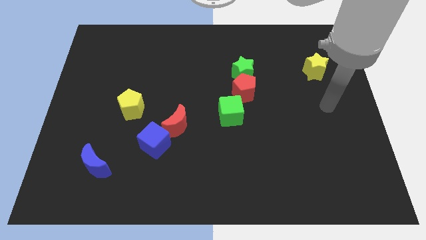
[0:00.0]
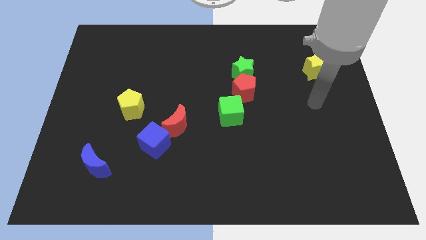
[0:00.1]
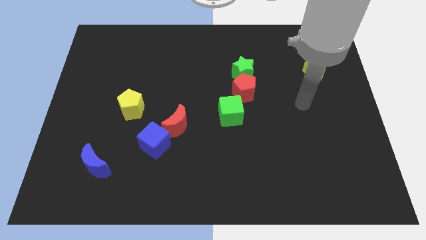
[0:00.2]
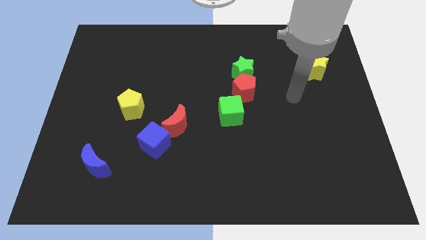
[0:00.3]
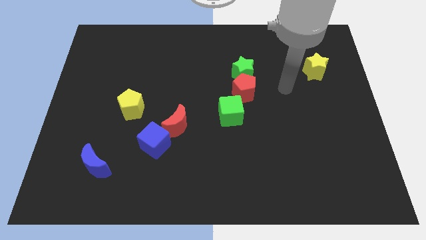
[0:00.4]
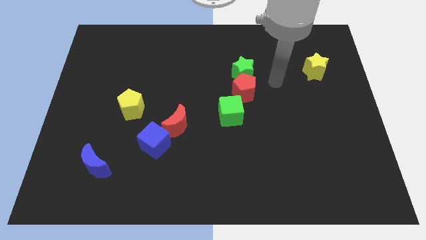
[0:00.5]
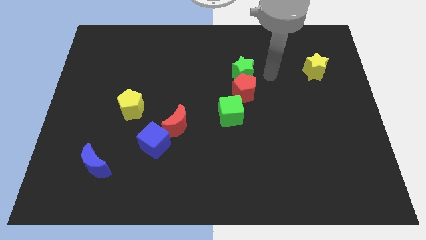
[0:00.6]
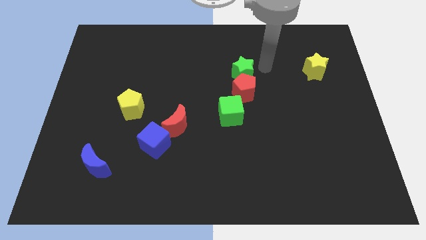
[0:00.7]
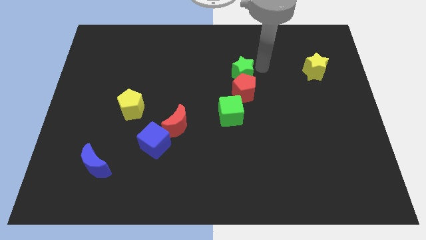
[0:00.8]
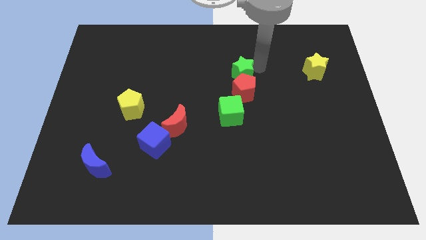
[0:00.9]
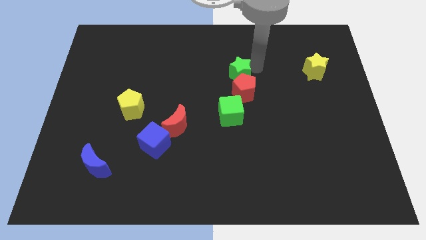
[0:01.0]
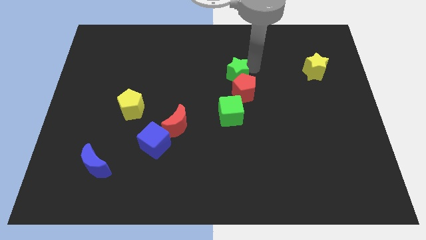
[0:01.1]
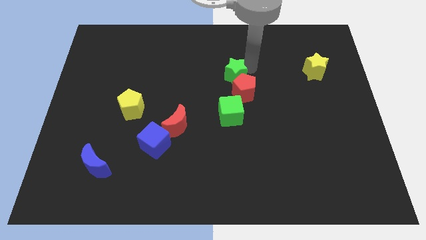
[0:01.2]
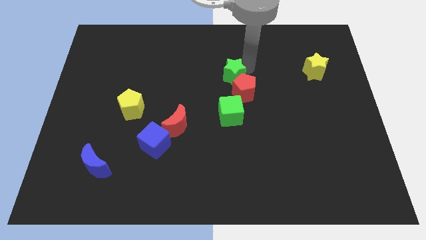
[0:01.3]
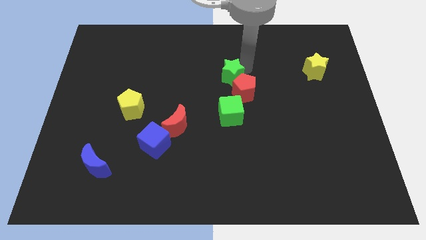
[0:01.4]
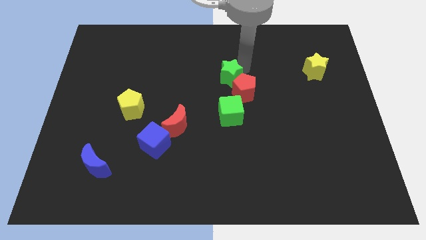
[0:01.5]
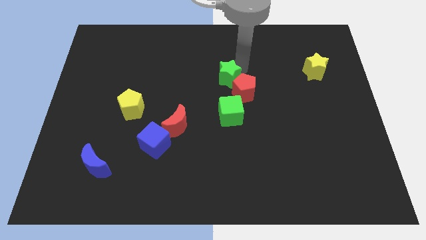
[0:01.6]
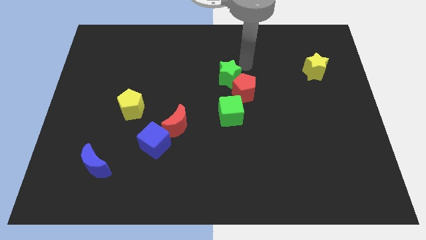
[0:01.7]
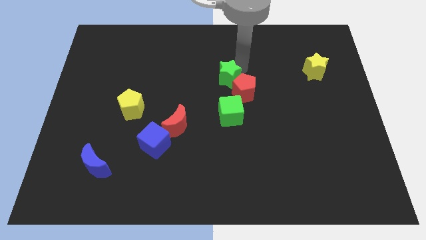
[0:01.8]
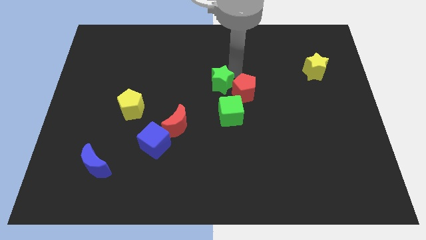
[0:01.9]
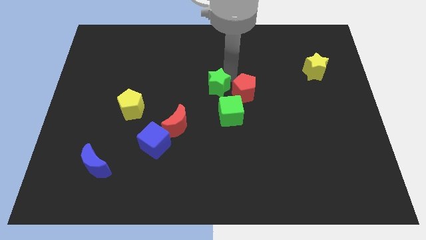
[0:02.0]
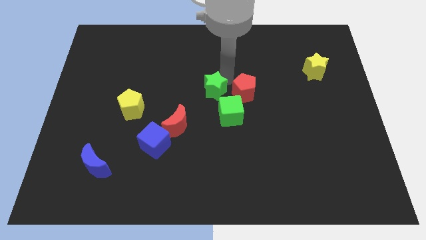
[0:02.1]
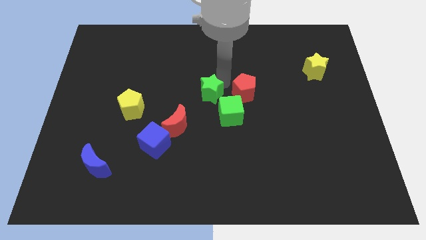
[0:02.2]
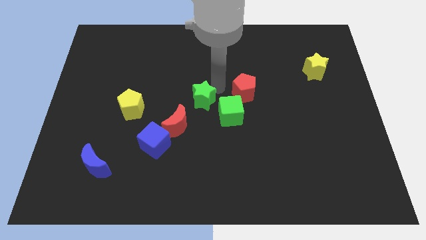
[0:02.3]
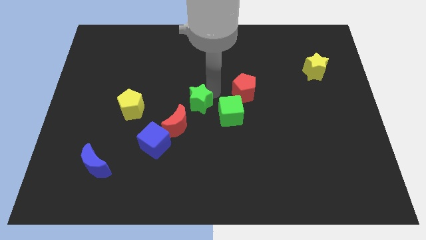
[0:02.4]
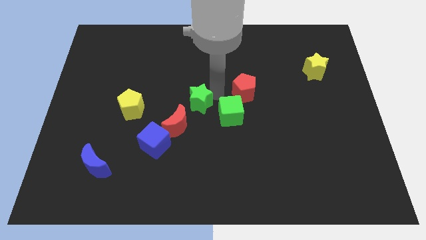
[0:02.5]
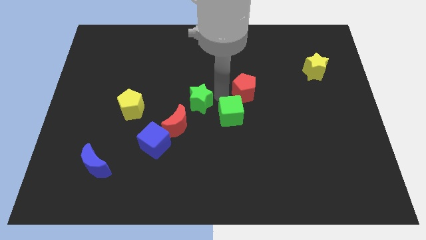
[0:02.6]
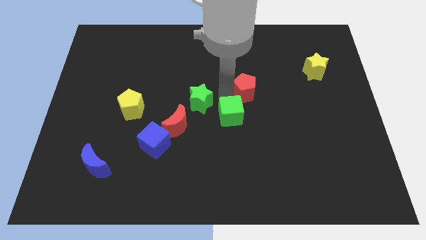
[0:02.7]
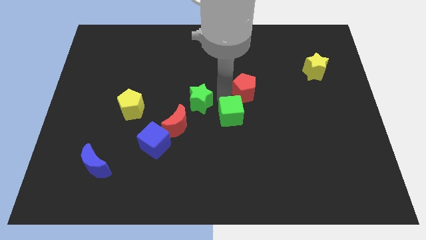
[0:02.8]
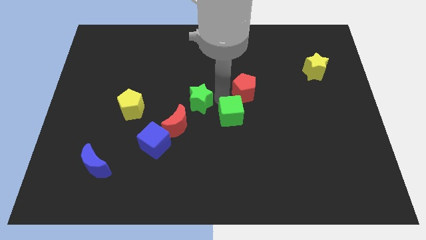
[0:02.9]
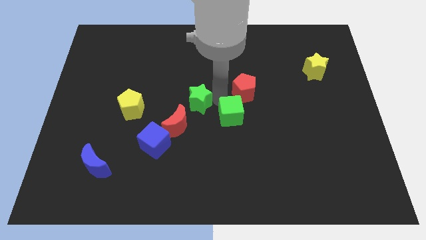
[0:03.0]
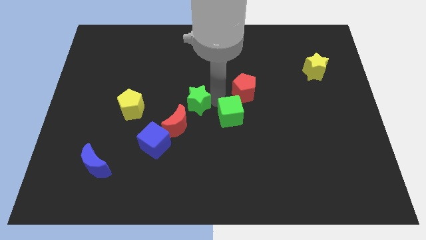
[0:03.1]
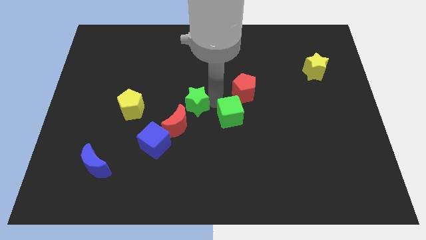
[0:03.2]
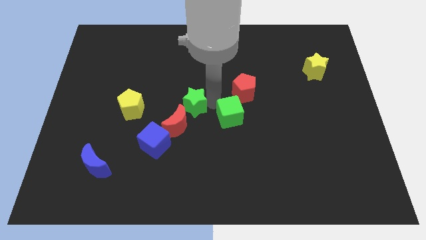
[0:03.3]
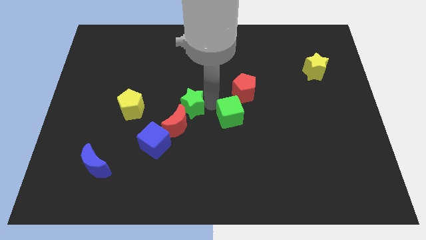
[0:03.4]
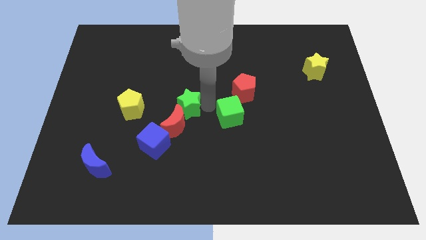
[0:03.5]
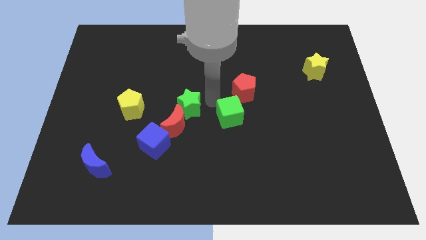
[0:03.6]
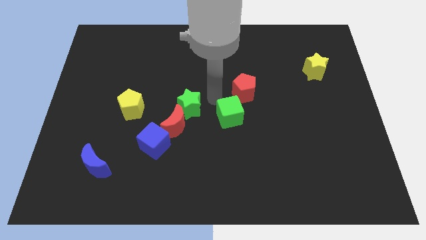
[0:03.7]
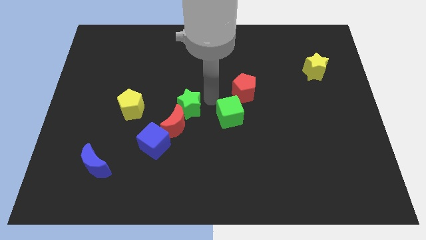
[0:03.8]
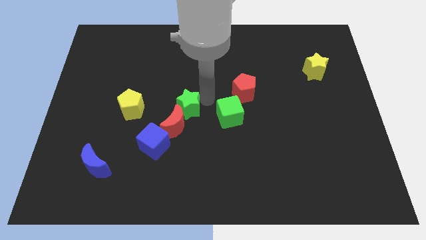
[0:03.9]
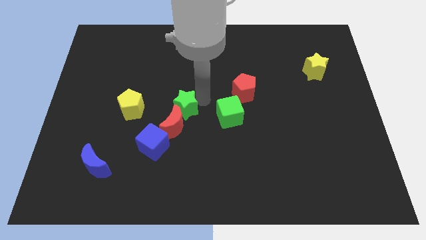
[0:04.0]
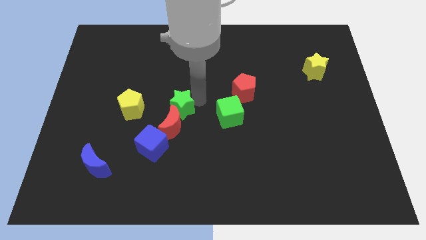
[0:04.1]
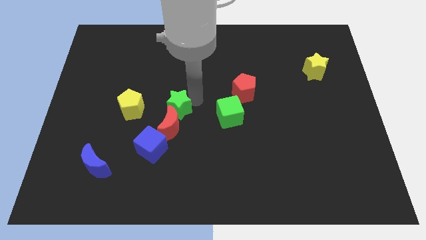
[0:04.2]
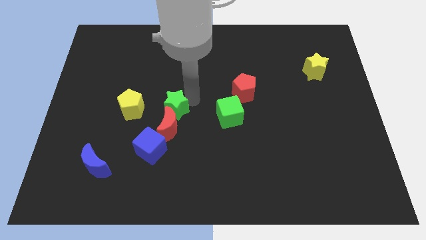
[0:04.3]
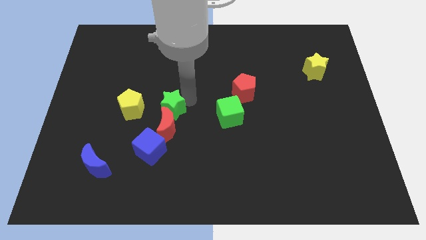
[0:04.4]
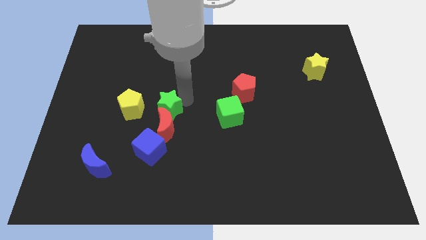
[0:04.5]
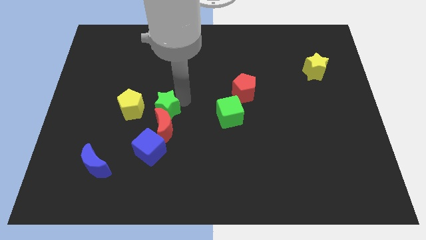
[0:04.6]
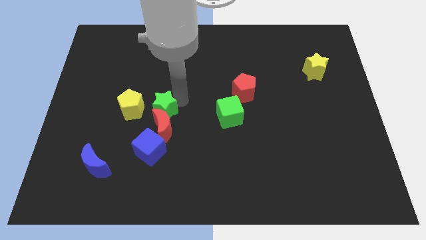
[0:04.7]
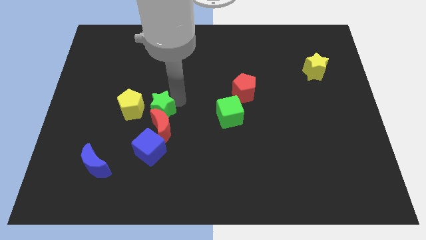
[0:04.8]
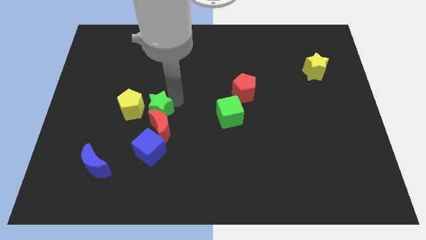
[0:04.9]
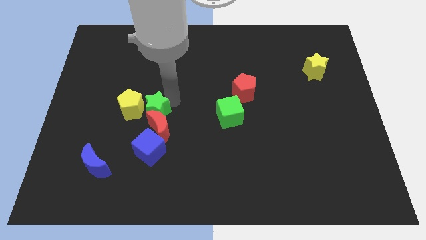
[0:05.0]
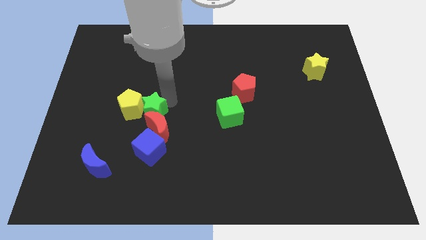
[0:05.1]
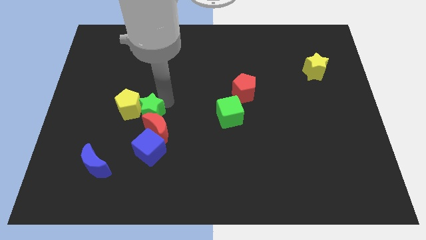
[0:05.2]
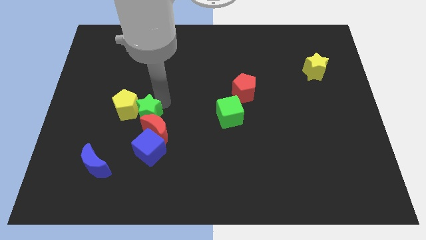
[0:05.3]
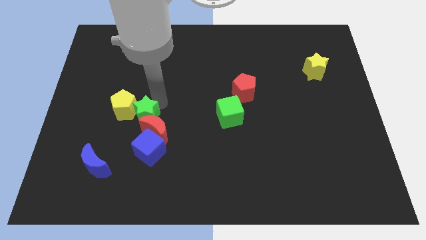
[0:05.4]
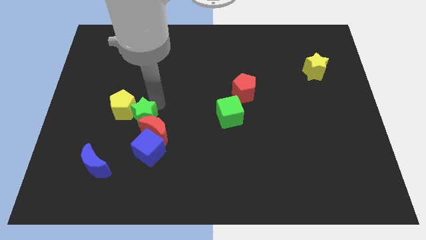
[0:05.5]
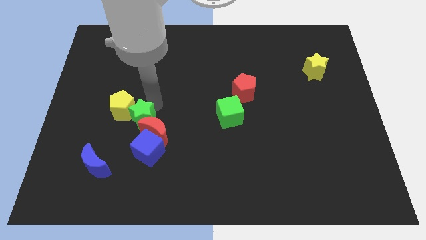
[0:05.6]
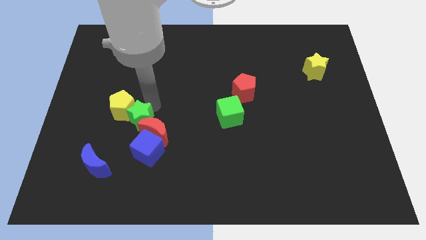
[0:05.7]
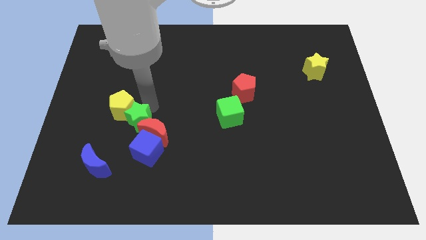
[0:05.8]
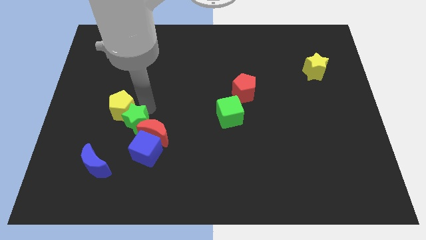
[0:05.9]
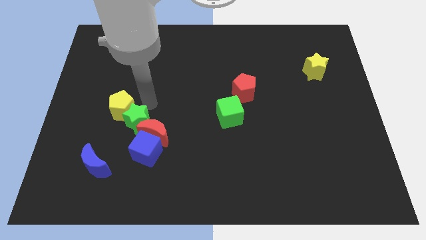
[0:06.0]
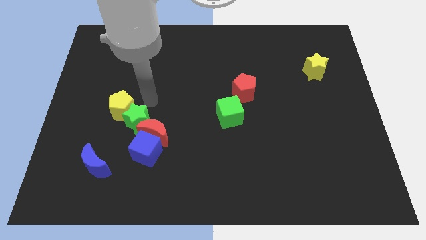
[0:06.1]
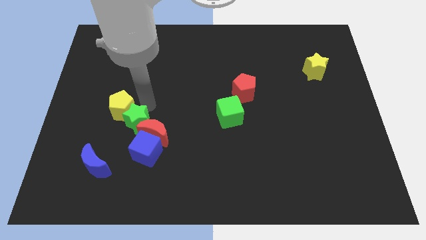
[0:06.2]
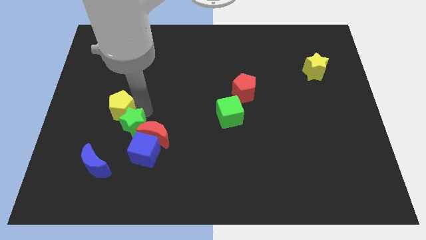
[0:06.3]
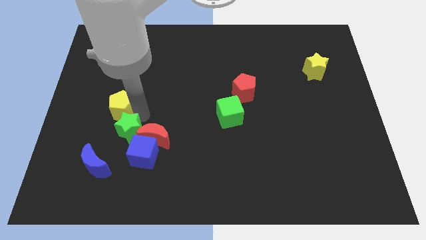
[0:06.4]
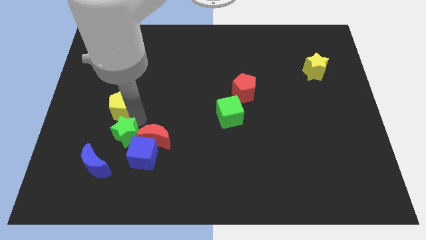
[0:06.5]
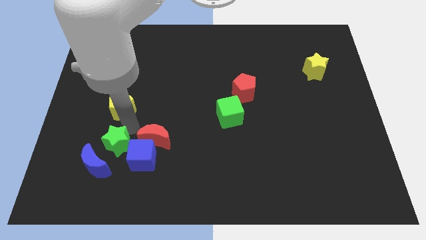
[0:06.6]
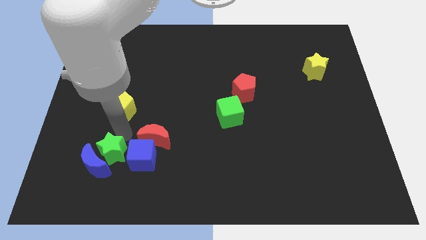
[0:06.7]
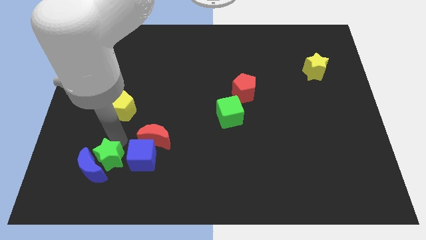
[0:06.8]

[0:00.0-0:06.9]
push the green star to the bottom left side of the blue cube
